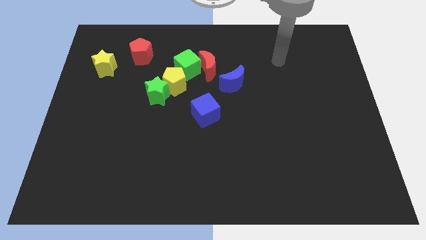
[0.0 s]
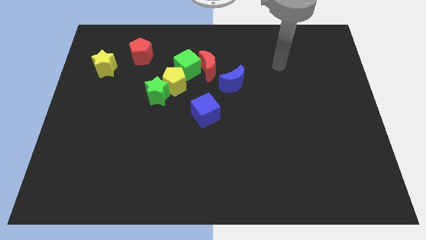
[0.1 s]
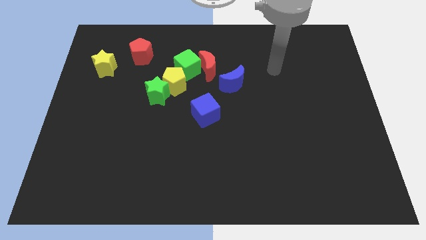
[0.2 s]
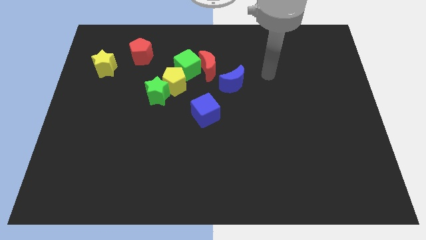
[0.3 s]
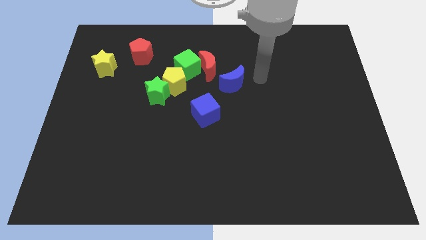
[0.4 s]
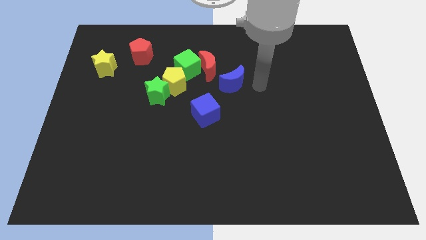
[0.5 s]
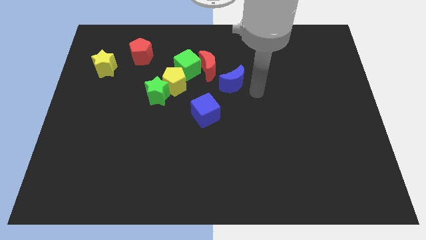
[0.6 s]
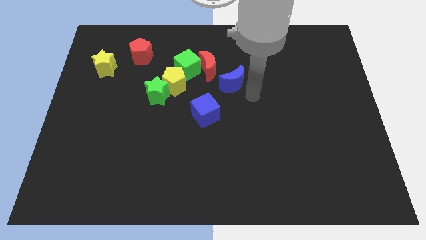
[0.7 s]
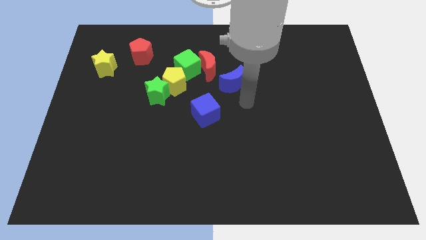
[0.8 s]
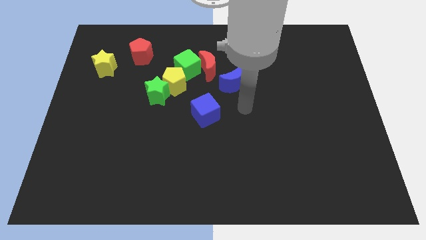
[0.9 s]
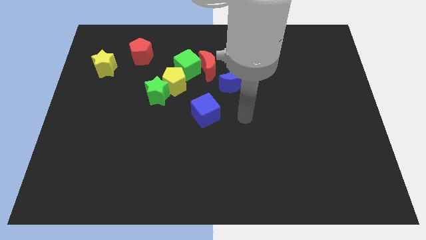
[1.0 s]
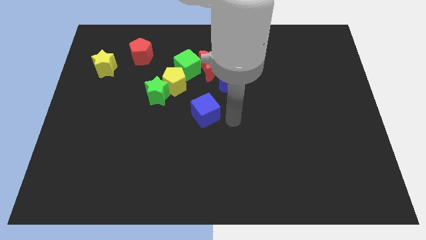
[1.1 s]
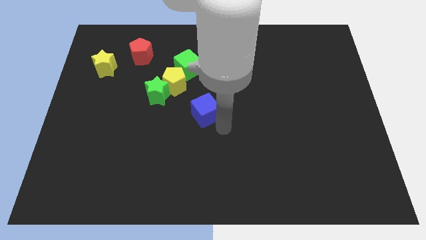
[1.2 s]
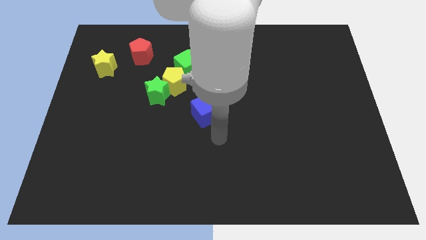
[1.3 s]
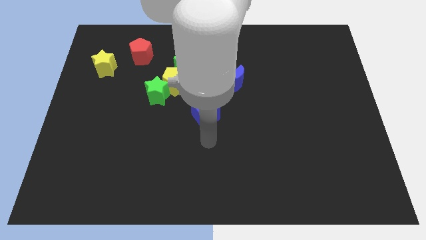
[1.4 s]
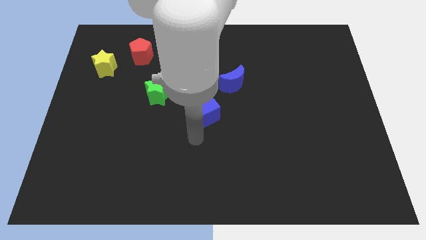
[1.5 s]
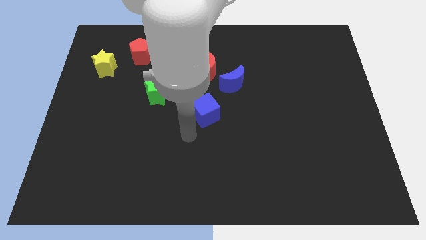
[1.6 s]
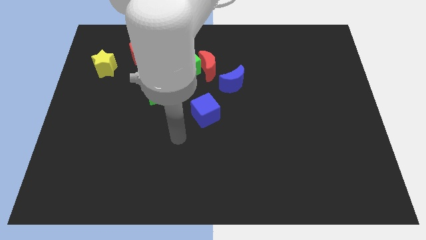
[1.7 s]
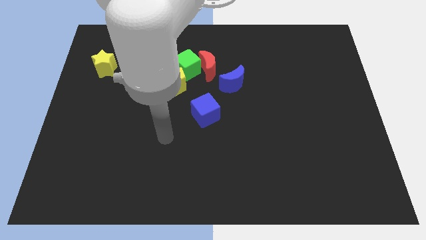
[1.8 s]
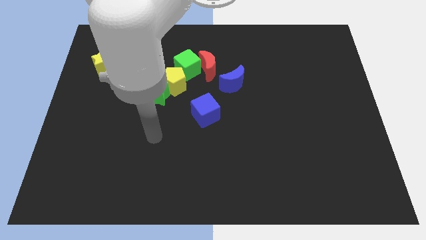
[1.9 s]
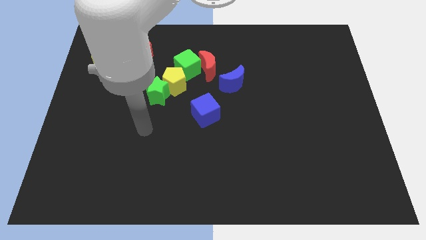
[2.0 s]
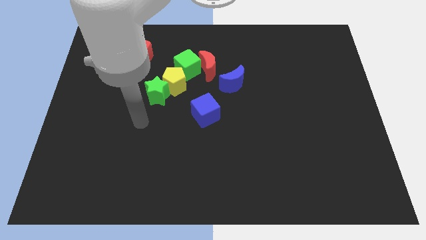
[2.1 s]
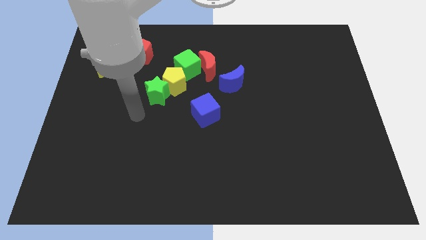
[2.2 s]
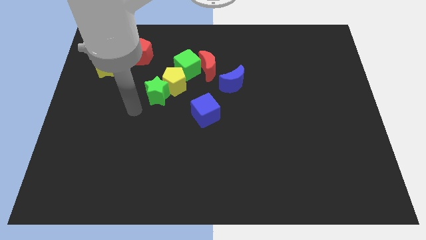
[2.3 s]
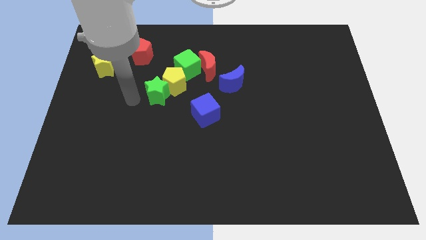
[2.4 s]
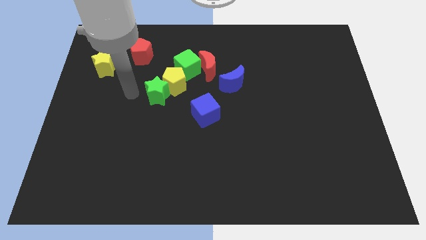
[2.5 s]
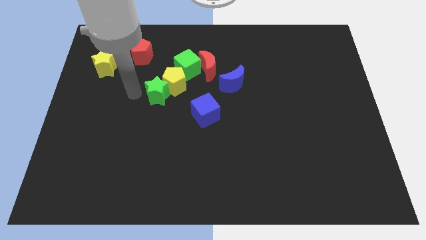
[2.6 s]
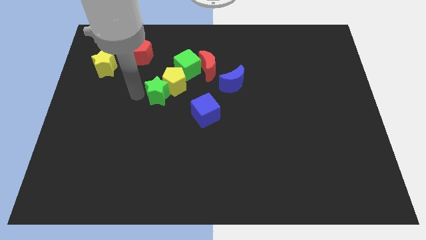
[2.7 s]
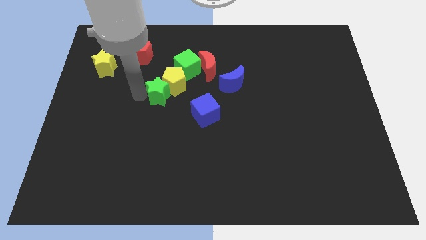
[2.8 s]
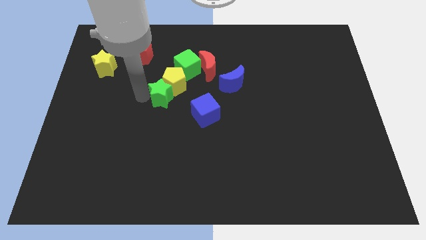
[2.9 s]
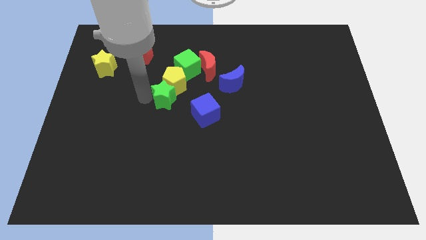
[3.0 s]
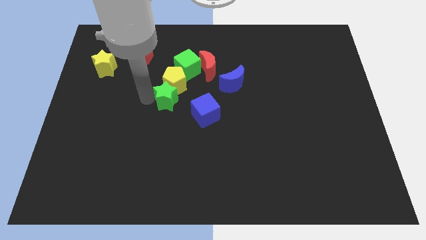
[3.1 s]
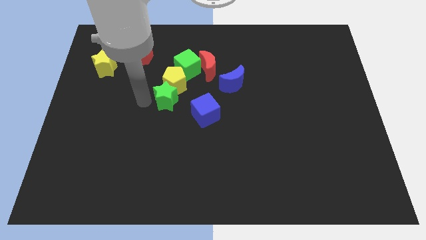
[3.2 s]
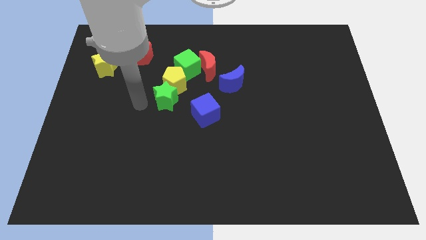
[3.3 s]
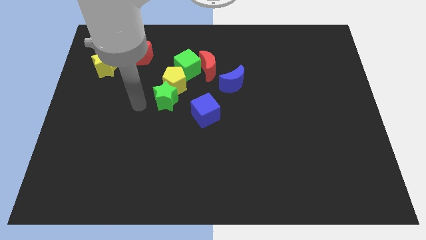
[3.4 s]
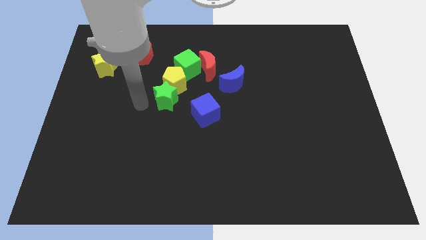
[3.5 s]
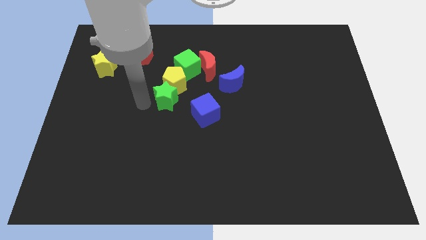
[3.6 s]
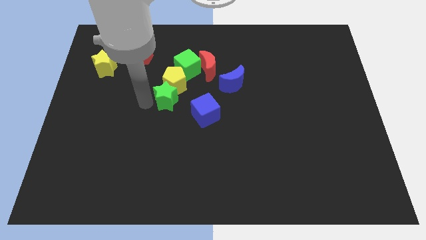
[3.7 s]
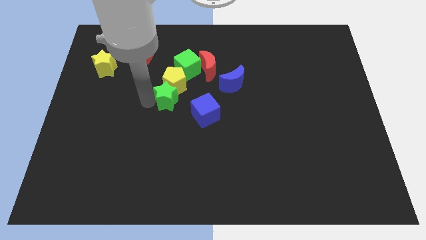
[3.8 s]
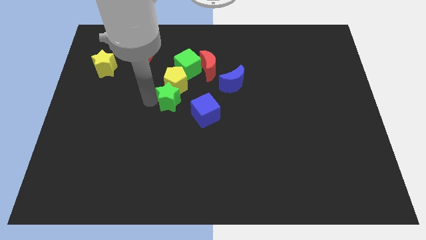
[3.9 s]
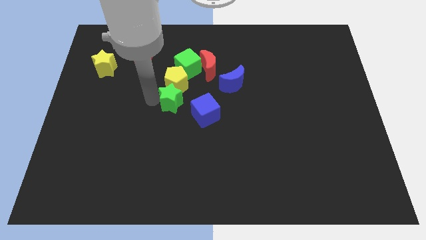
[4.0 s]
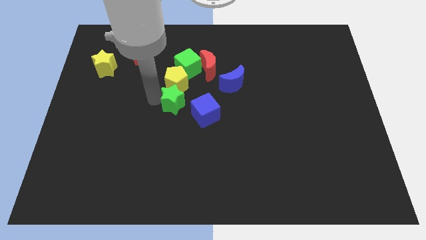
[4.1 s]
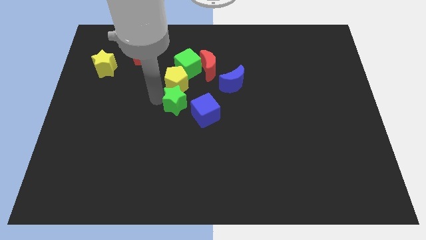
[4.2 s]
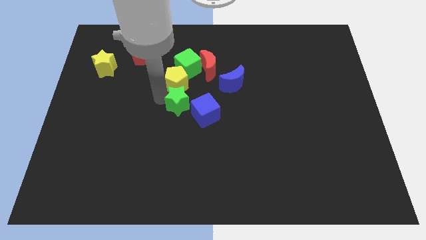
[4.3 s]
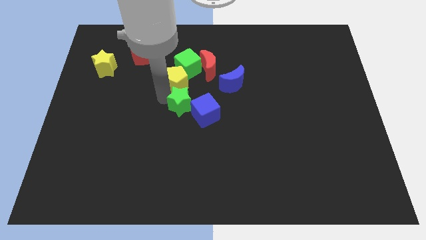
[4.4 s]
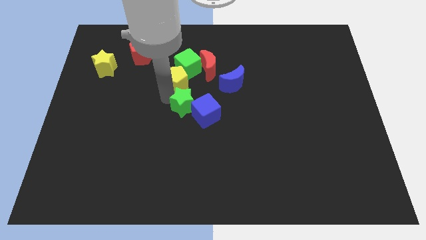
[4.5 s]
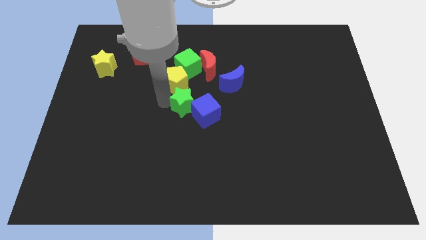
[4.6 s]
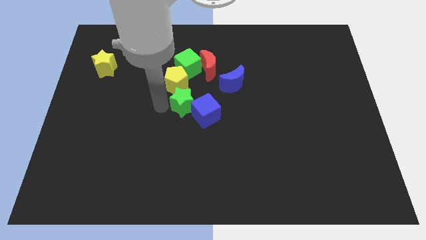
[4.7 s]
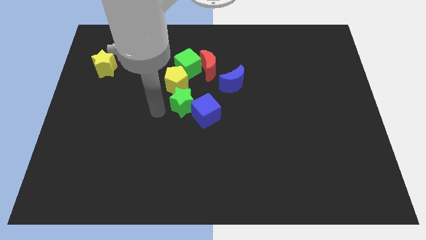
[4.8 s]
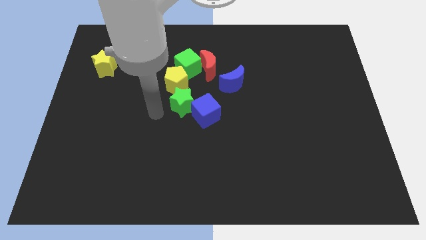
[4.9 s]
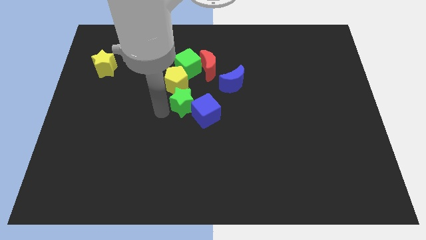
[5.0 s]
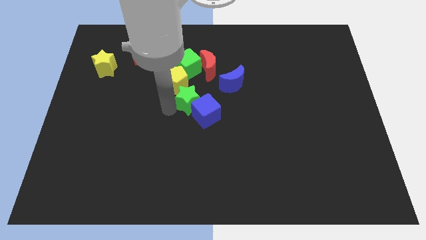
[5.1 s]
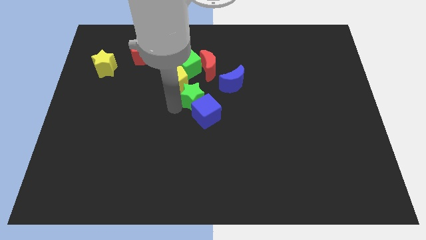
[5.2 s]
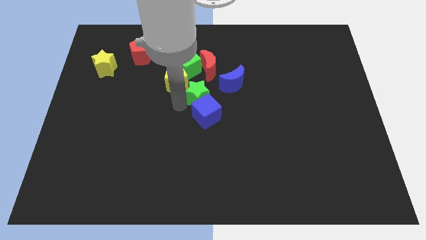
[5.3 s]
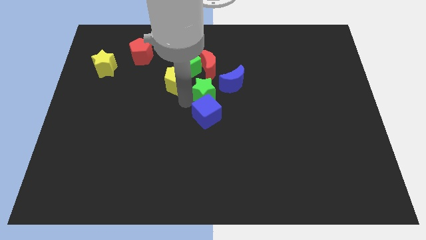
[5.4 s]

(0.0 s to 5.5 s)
move the green star to the top right side of the blue cube

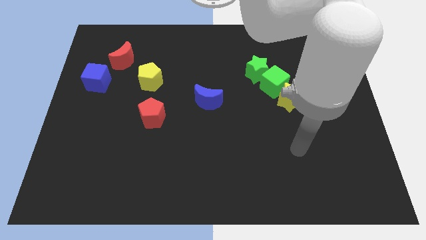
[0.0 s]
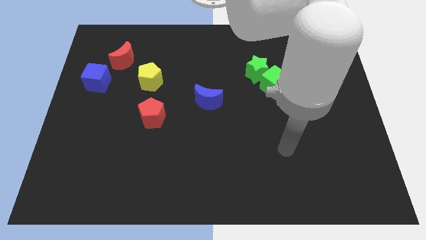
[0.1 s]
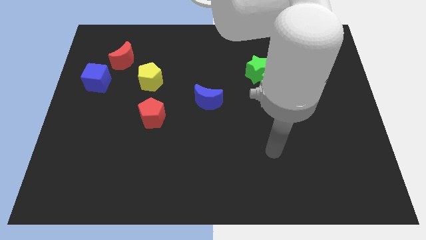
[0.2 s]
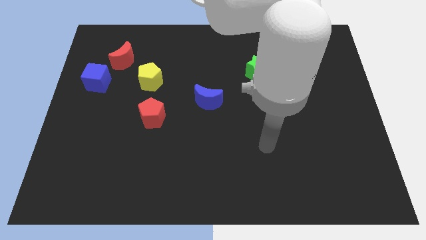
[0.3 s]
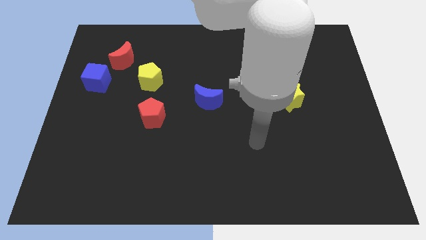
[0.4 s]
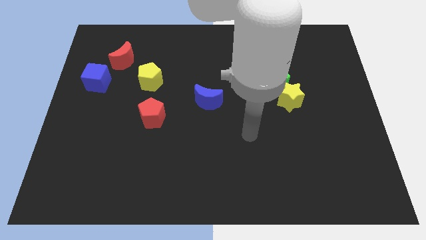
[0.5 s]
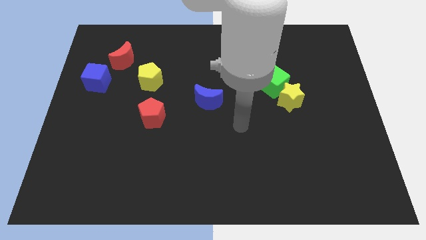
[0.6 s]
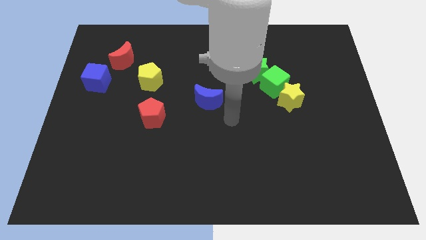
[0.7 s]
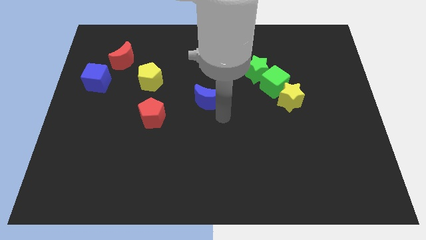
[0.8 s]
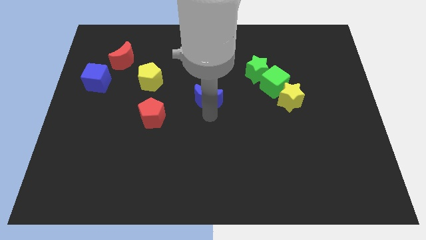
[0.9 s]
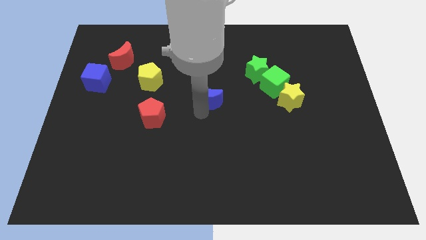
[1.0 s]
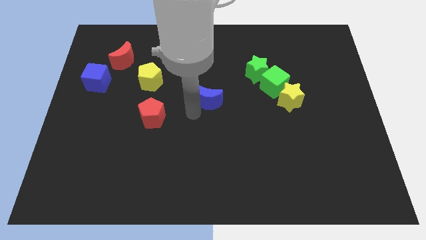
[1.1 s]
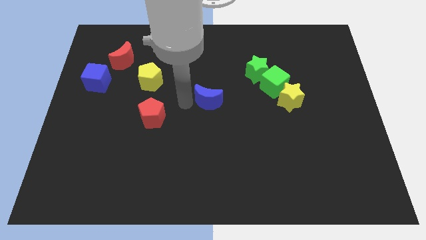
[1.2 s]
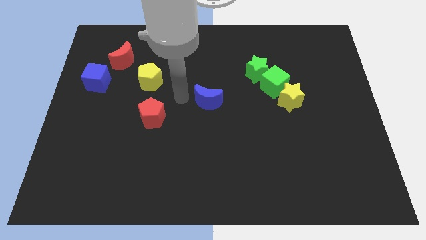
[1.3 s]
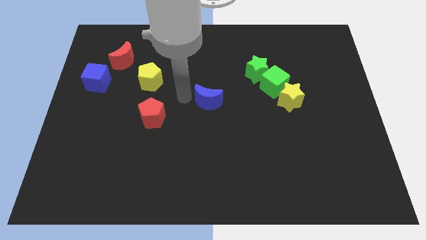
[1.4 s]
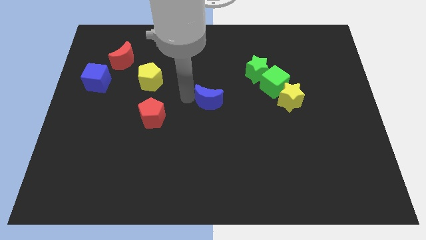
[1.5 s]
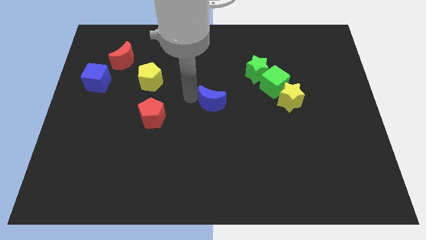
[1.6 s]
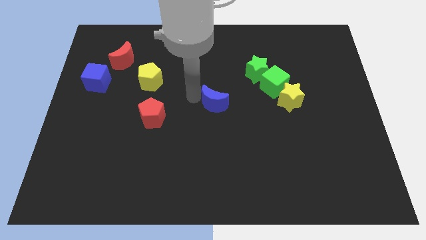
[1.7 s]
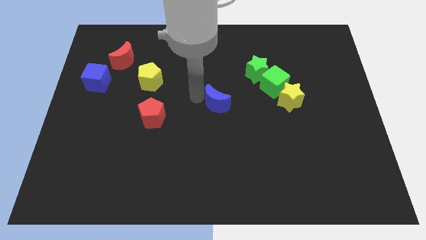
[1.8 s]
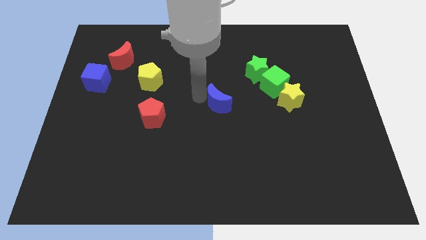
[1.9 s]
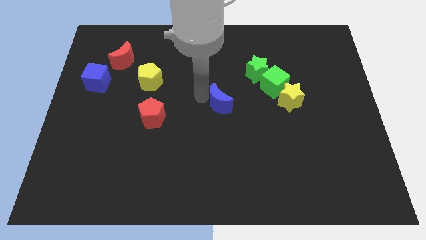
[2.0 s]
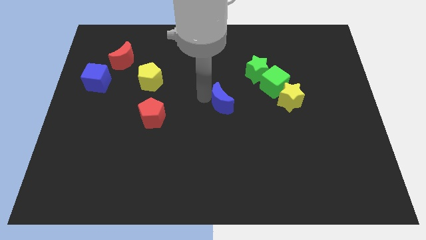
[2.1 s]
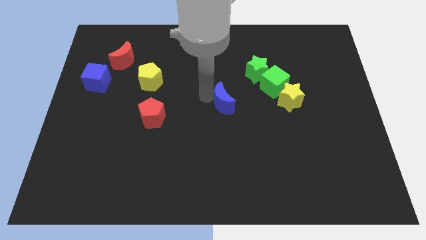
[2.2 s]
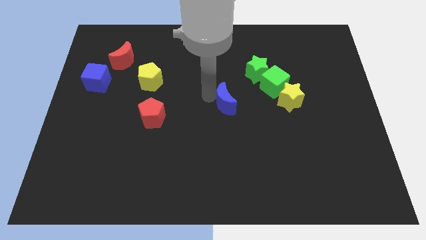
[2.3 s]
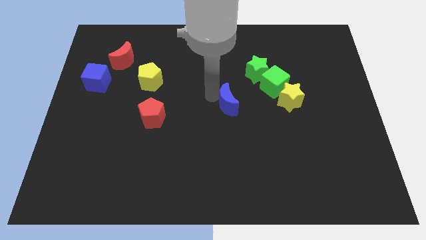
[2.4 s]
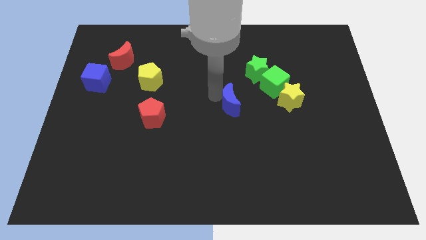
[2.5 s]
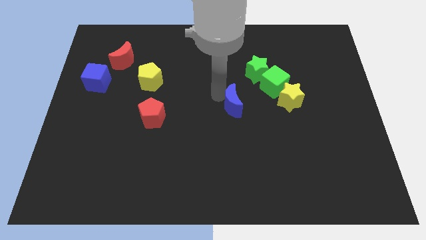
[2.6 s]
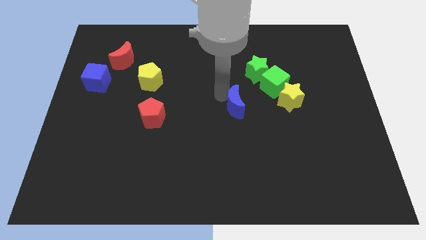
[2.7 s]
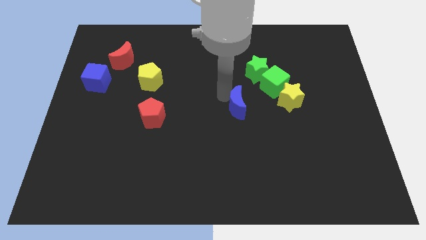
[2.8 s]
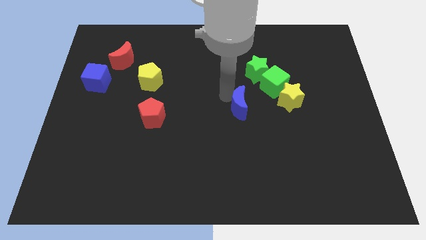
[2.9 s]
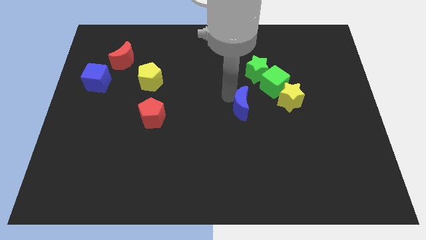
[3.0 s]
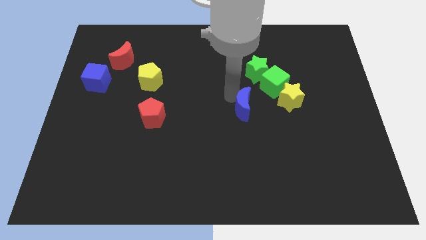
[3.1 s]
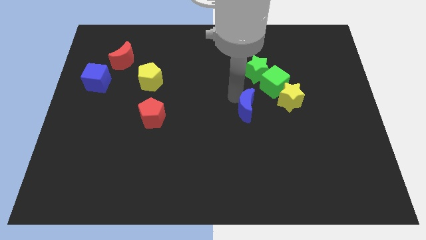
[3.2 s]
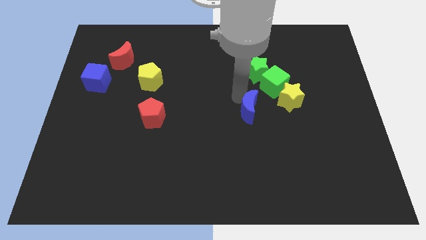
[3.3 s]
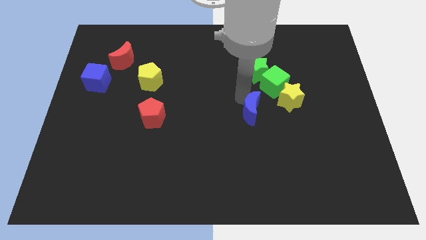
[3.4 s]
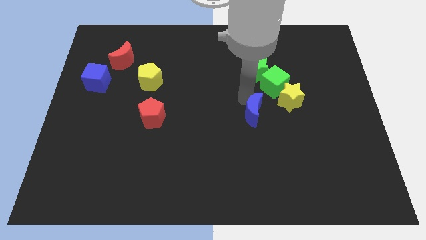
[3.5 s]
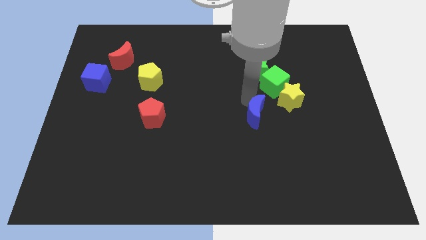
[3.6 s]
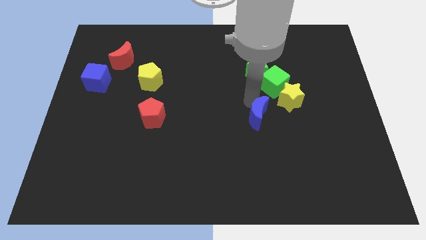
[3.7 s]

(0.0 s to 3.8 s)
push the blue moon to the bottom of the green cube
